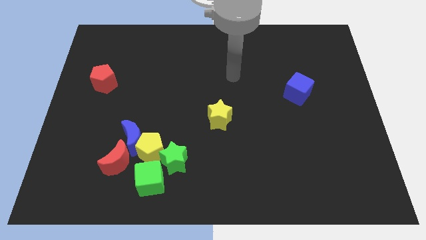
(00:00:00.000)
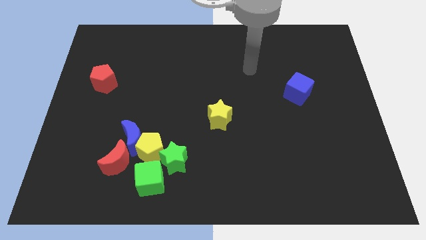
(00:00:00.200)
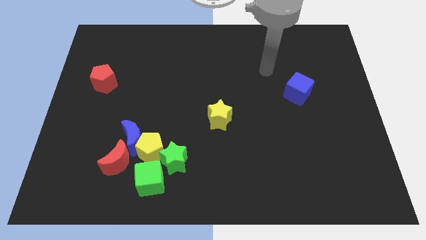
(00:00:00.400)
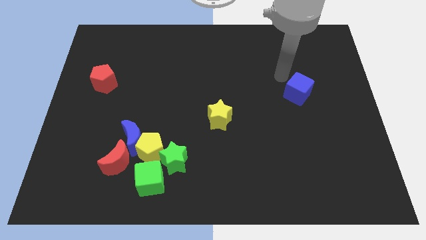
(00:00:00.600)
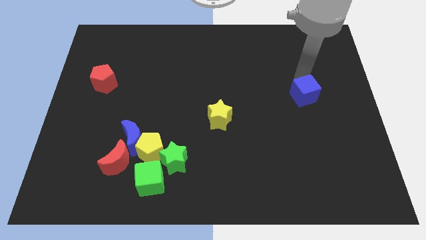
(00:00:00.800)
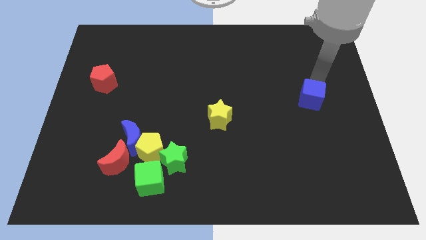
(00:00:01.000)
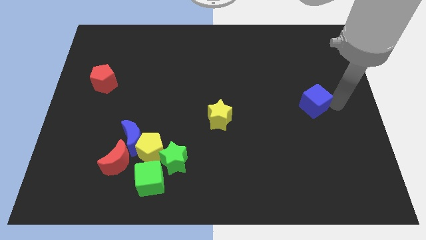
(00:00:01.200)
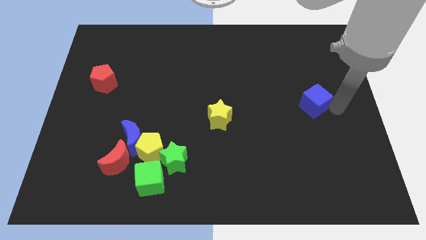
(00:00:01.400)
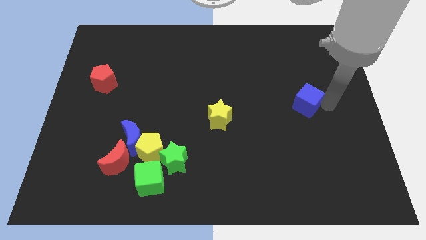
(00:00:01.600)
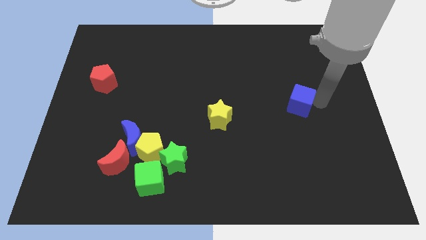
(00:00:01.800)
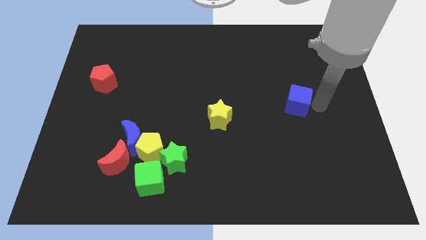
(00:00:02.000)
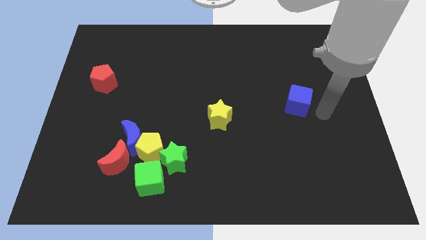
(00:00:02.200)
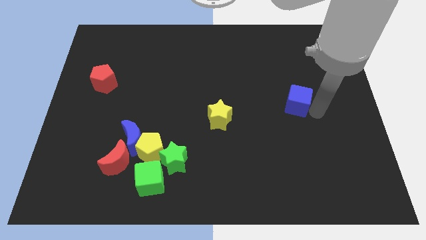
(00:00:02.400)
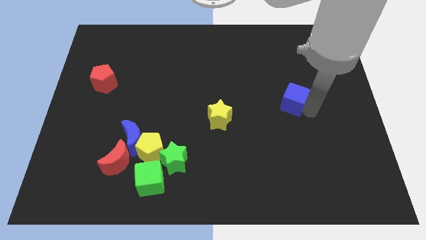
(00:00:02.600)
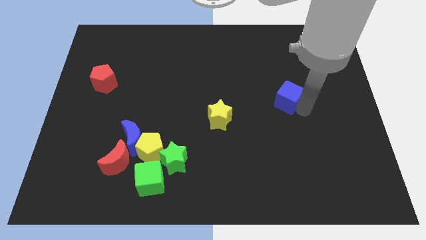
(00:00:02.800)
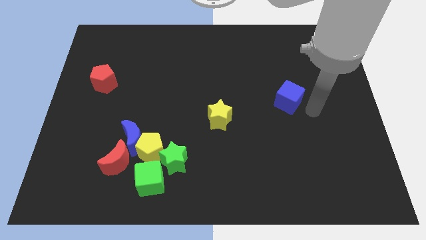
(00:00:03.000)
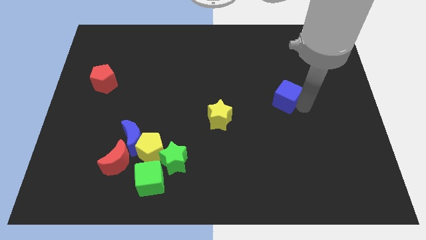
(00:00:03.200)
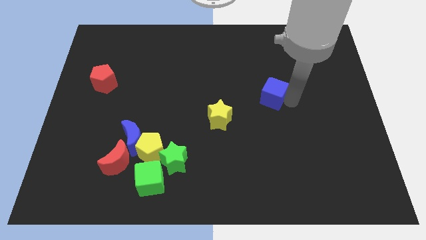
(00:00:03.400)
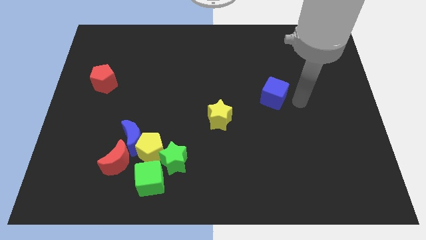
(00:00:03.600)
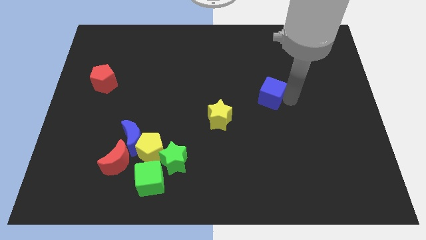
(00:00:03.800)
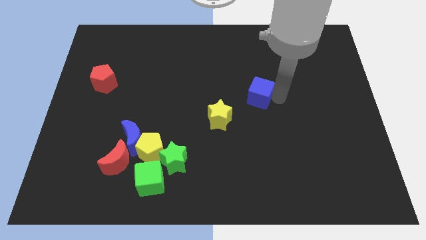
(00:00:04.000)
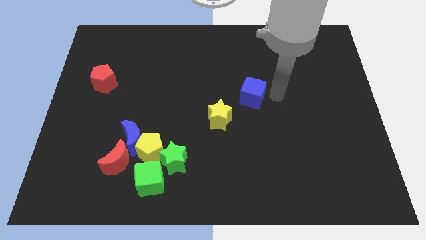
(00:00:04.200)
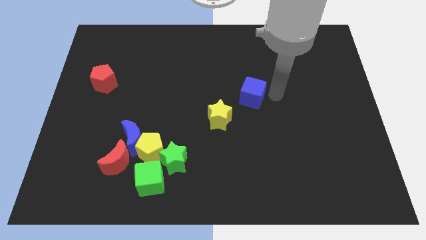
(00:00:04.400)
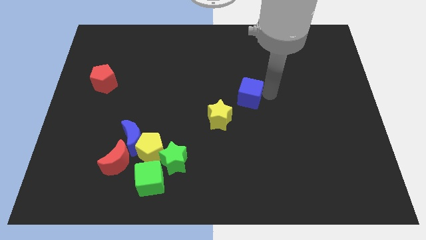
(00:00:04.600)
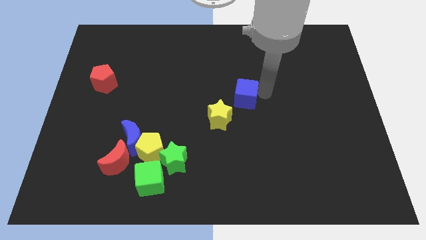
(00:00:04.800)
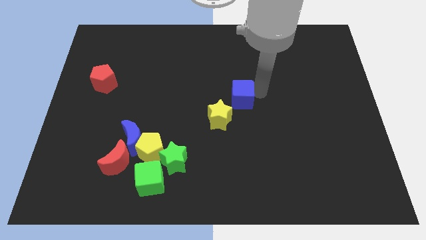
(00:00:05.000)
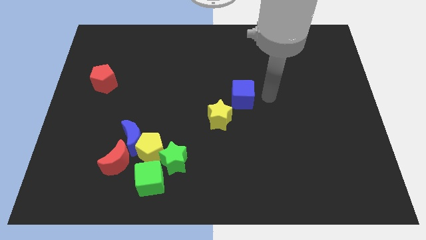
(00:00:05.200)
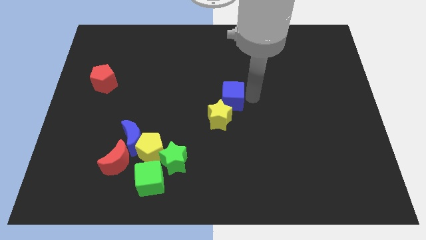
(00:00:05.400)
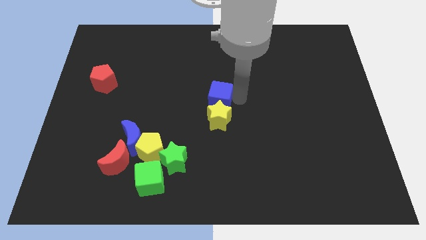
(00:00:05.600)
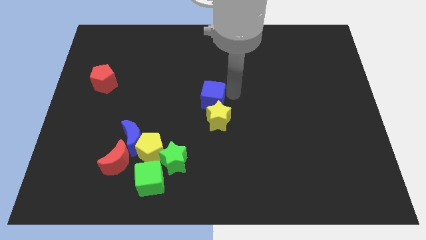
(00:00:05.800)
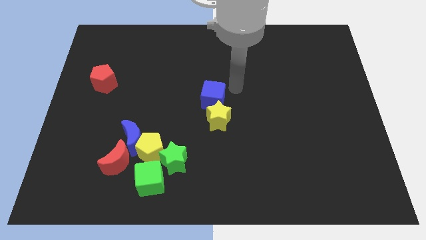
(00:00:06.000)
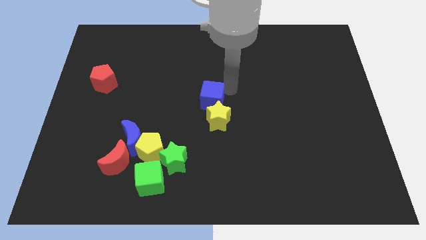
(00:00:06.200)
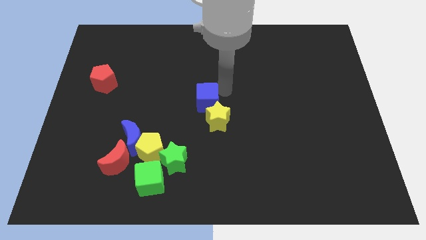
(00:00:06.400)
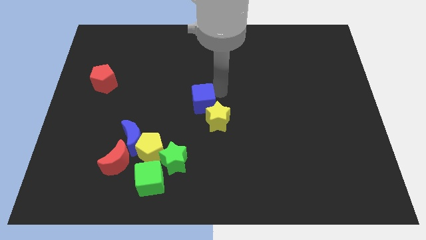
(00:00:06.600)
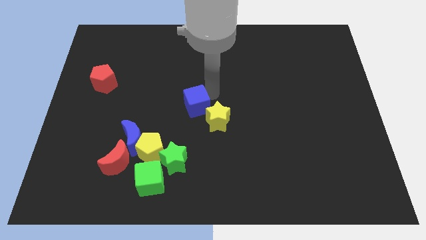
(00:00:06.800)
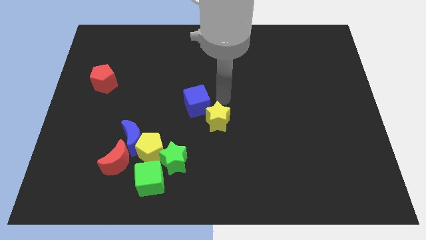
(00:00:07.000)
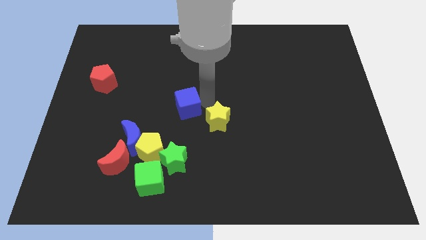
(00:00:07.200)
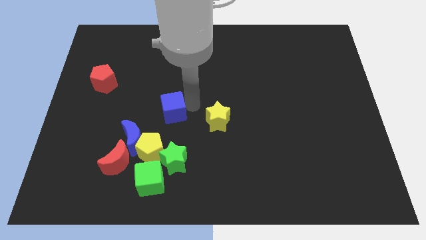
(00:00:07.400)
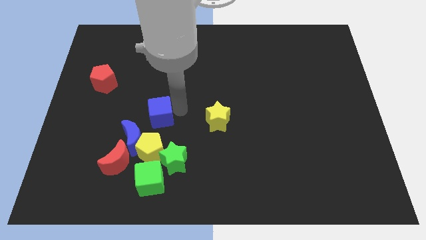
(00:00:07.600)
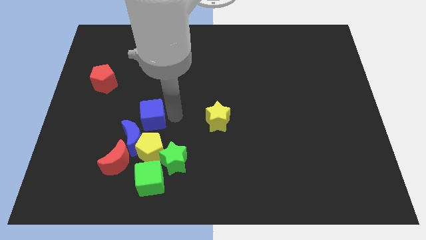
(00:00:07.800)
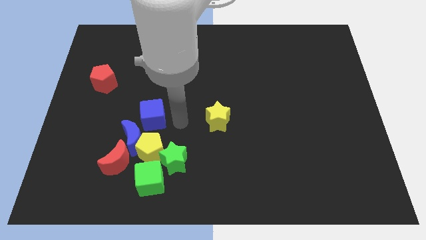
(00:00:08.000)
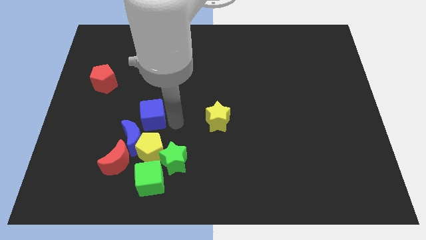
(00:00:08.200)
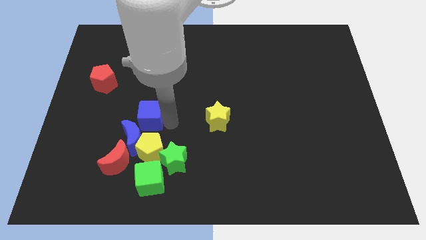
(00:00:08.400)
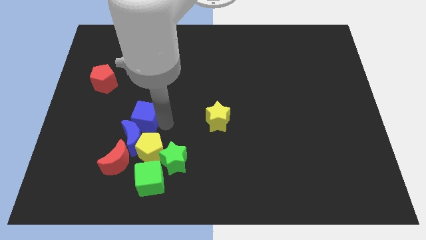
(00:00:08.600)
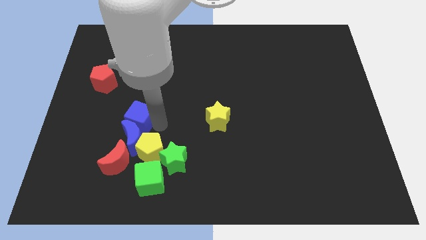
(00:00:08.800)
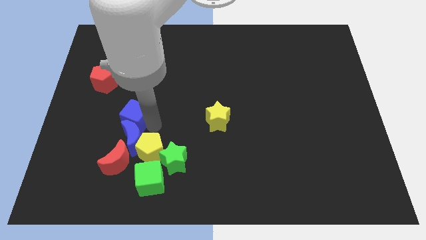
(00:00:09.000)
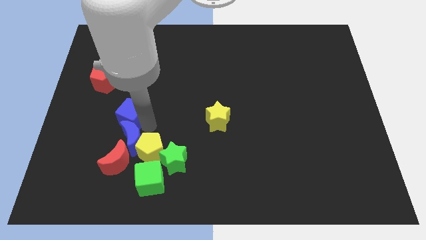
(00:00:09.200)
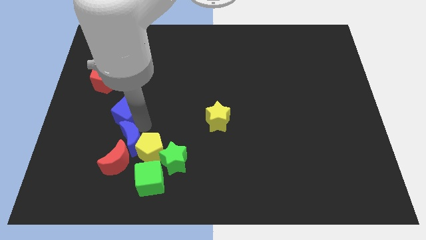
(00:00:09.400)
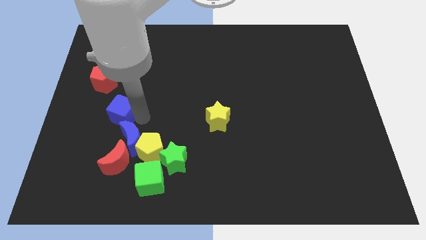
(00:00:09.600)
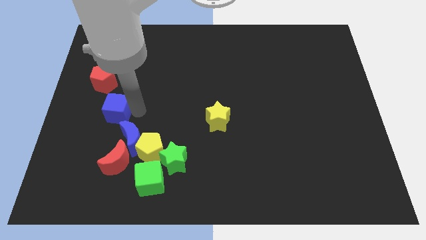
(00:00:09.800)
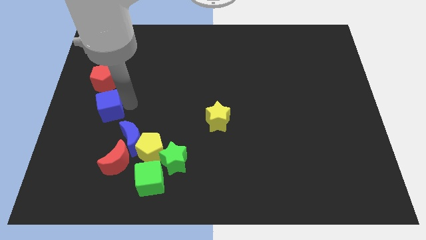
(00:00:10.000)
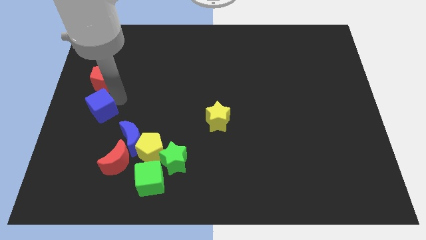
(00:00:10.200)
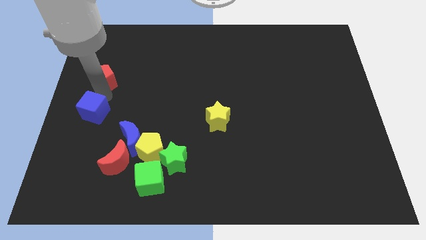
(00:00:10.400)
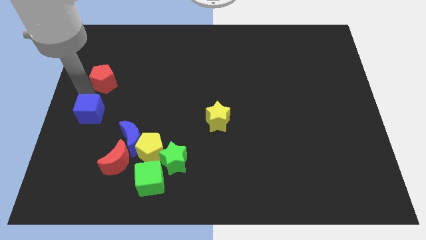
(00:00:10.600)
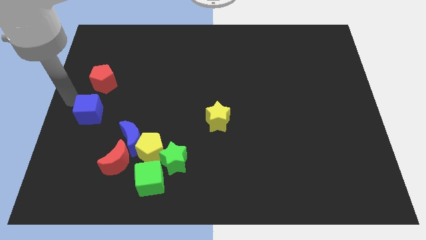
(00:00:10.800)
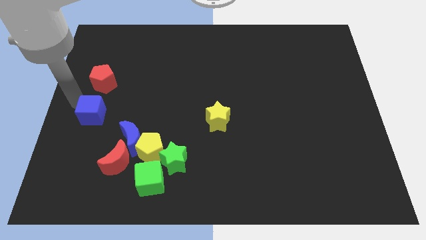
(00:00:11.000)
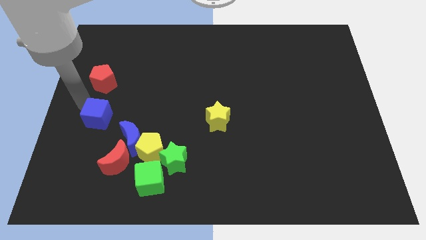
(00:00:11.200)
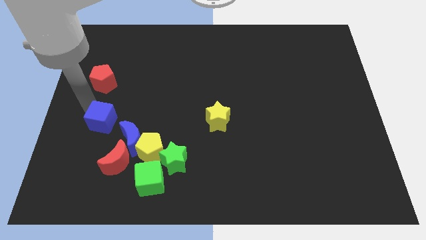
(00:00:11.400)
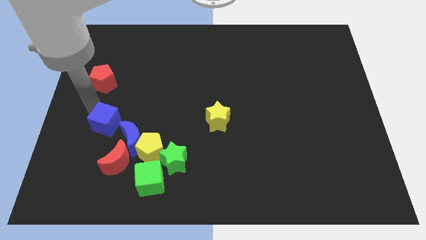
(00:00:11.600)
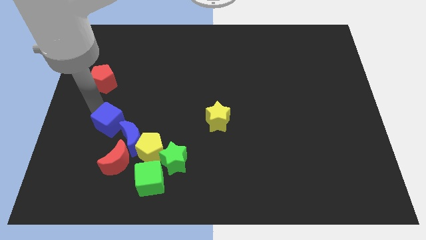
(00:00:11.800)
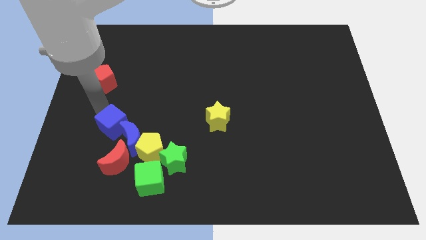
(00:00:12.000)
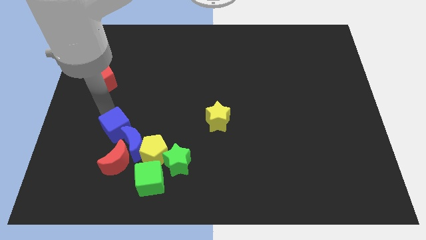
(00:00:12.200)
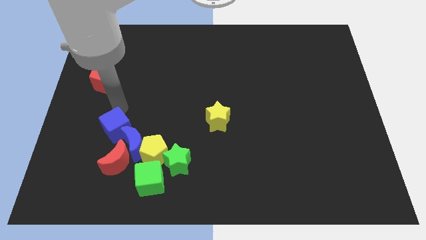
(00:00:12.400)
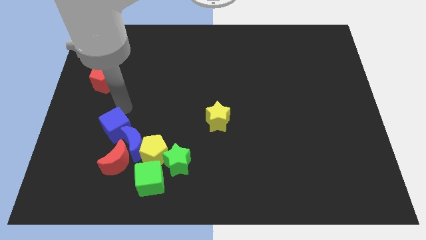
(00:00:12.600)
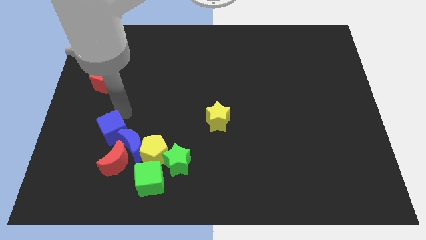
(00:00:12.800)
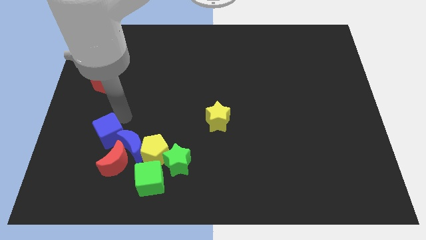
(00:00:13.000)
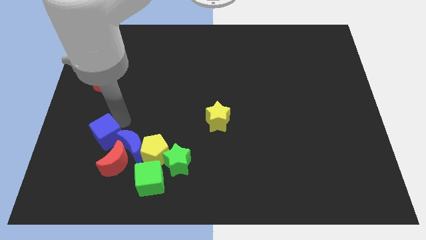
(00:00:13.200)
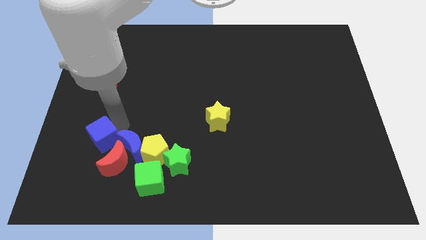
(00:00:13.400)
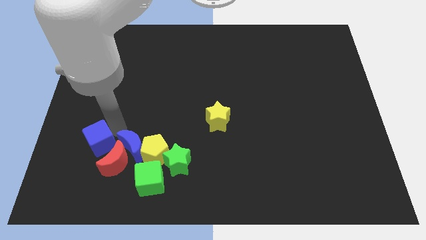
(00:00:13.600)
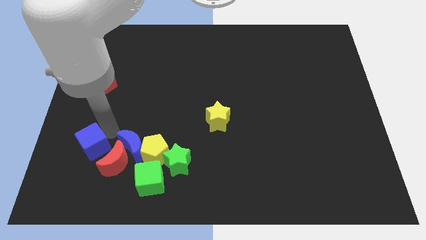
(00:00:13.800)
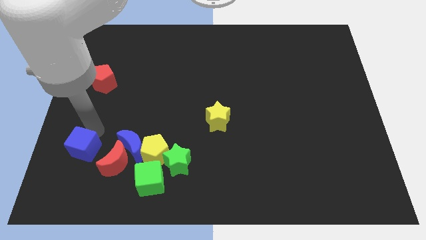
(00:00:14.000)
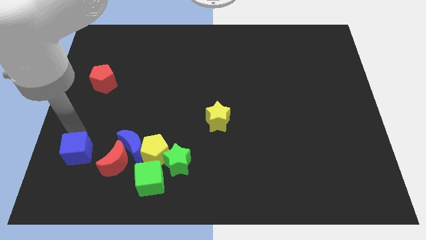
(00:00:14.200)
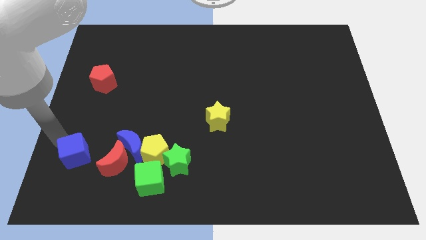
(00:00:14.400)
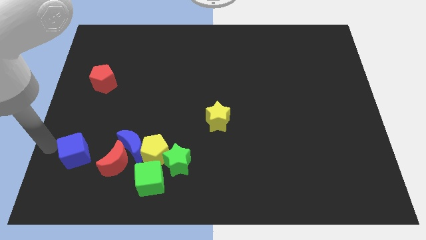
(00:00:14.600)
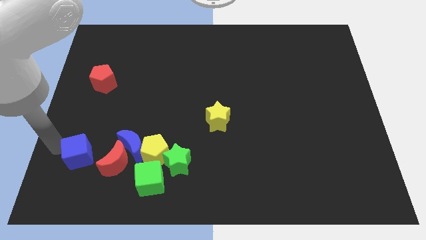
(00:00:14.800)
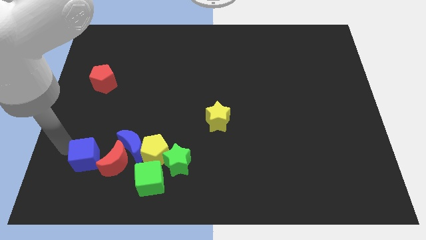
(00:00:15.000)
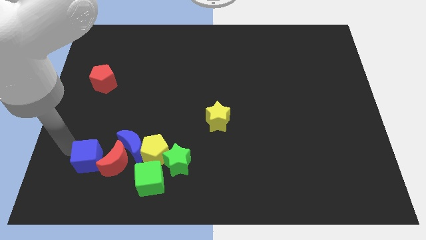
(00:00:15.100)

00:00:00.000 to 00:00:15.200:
push the blue cube close to the red moon
